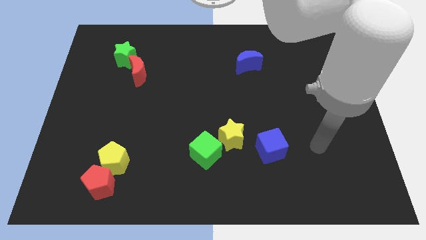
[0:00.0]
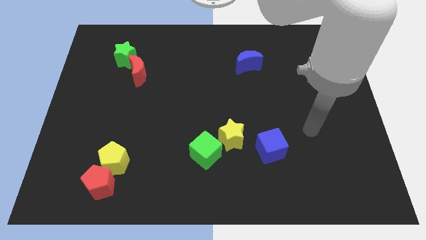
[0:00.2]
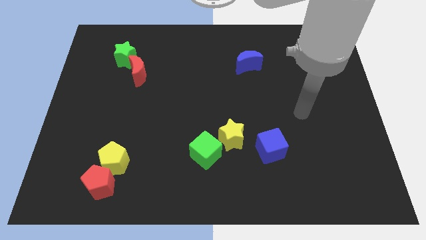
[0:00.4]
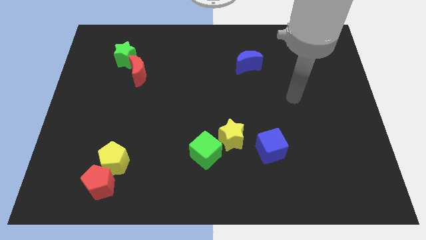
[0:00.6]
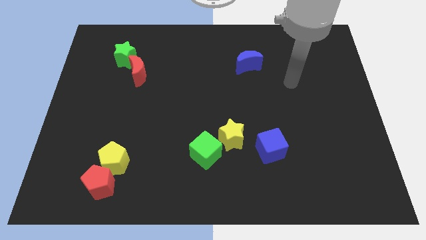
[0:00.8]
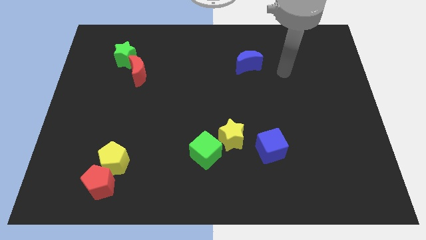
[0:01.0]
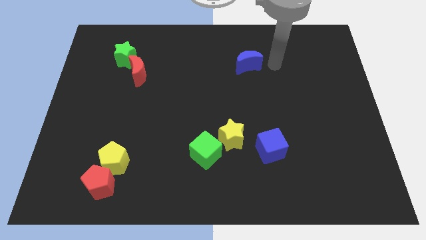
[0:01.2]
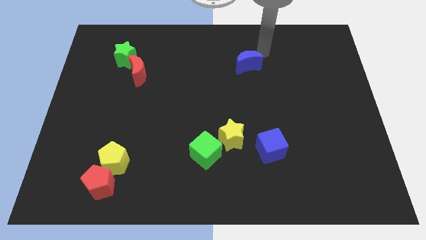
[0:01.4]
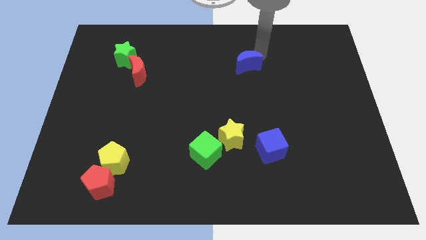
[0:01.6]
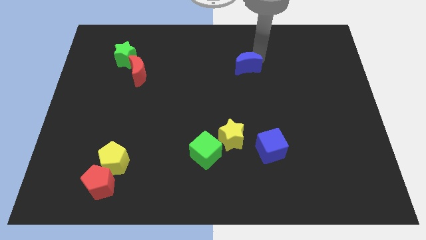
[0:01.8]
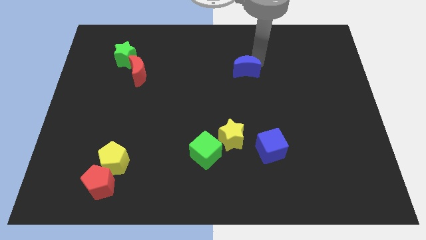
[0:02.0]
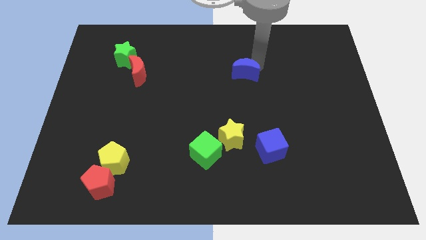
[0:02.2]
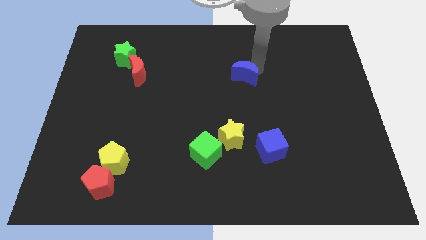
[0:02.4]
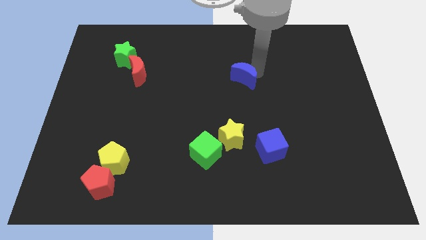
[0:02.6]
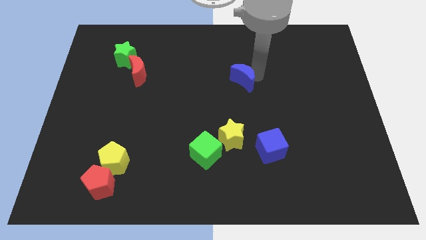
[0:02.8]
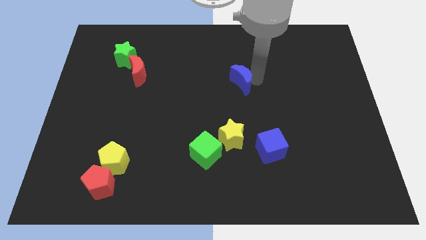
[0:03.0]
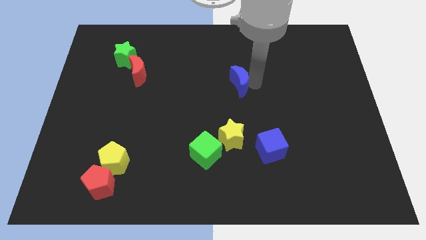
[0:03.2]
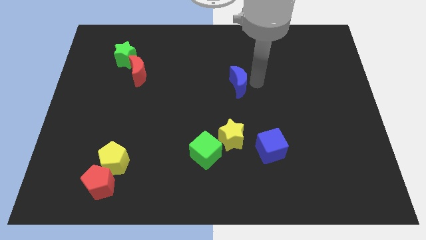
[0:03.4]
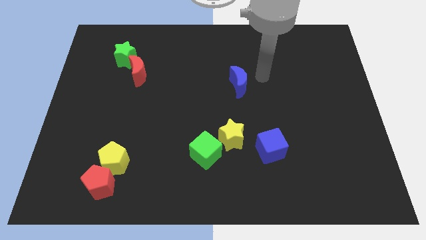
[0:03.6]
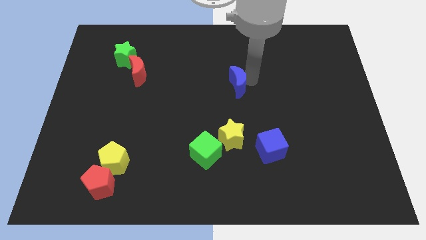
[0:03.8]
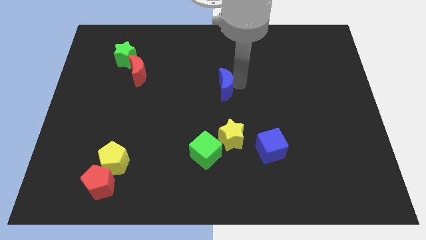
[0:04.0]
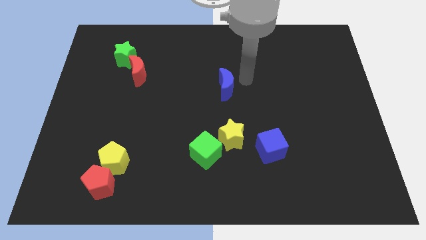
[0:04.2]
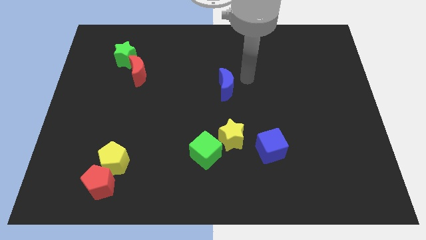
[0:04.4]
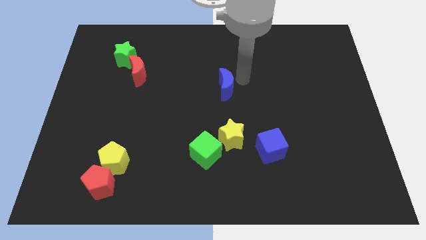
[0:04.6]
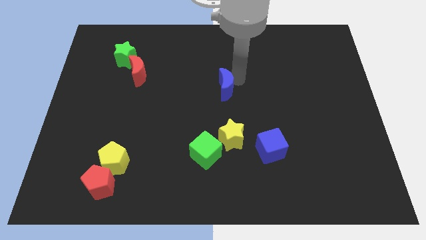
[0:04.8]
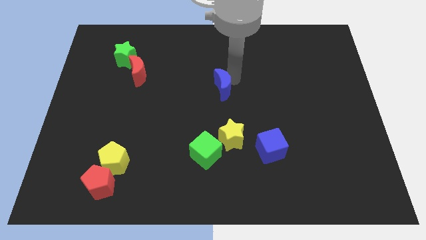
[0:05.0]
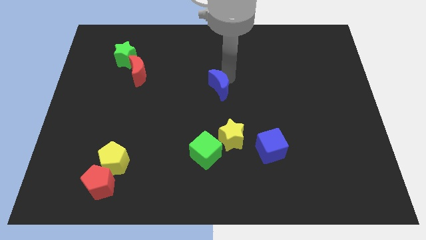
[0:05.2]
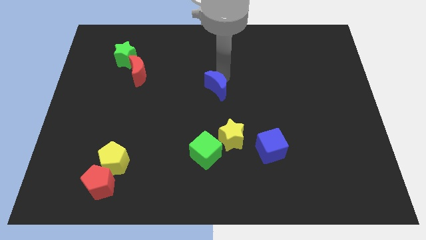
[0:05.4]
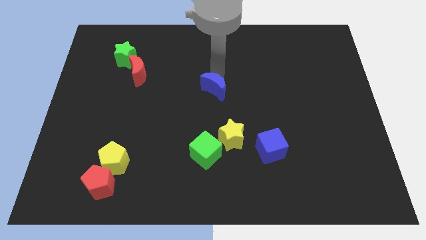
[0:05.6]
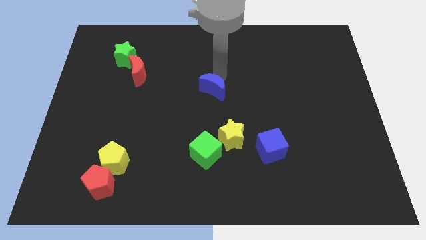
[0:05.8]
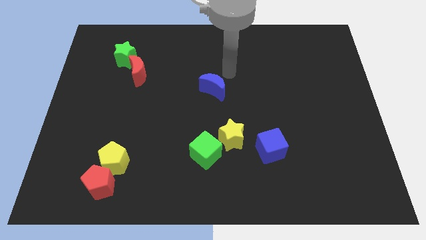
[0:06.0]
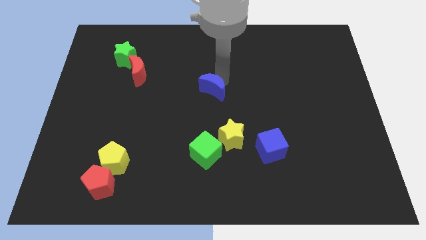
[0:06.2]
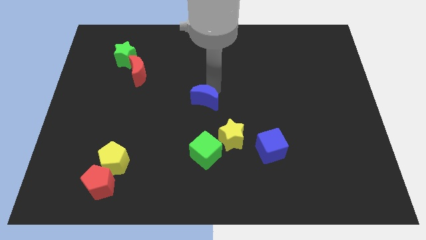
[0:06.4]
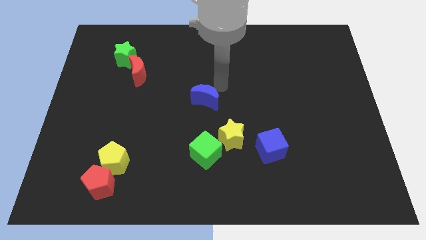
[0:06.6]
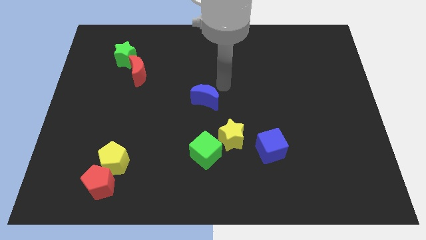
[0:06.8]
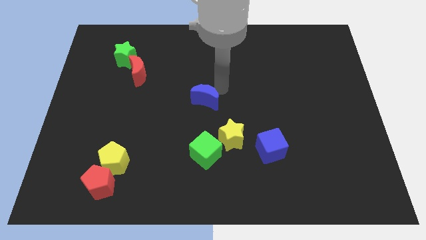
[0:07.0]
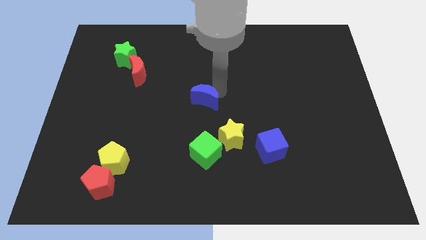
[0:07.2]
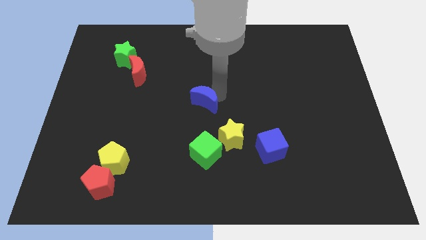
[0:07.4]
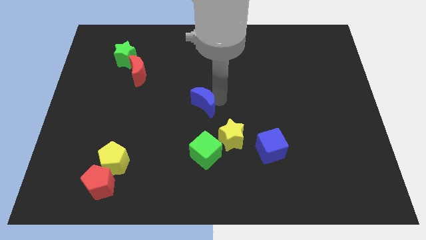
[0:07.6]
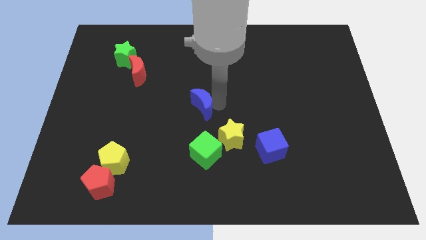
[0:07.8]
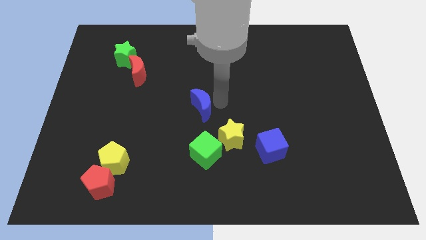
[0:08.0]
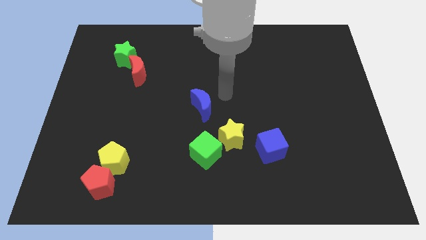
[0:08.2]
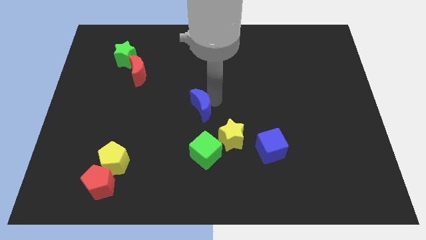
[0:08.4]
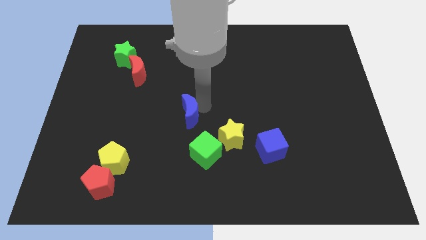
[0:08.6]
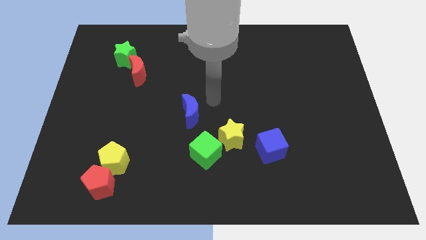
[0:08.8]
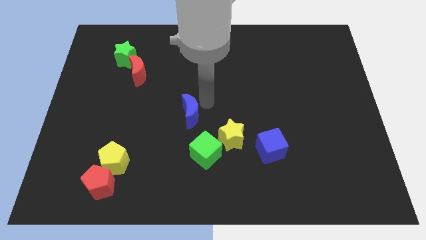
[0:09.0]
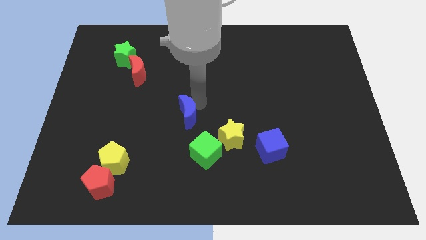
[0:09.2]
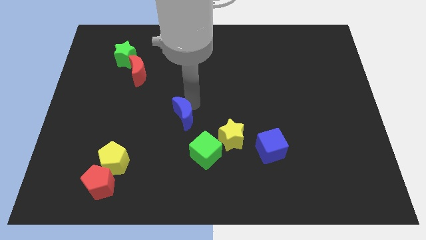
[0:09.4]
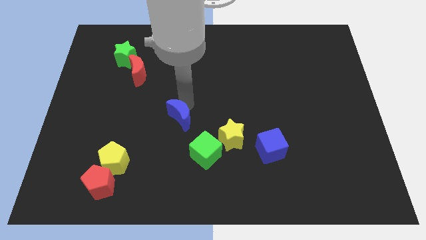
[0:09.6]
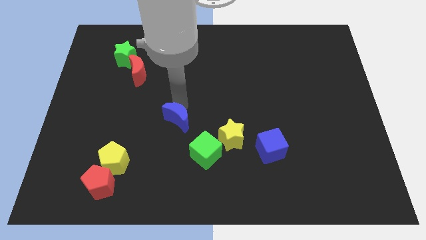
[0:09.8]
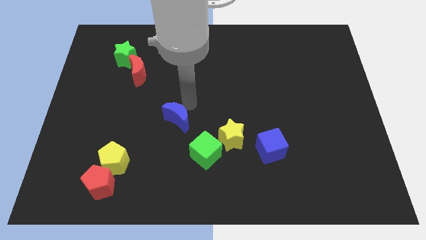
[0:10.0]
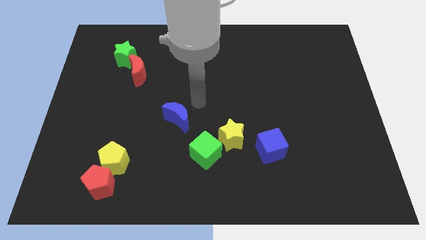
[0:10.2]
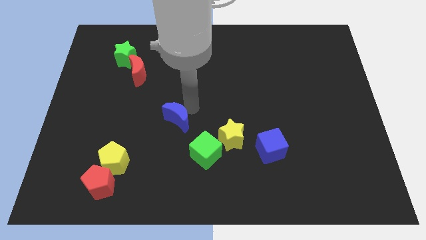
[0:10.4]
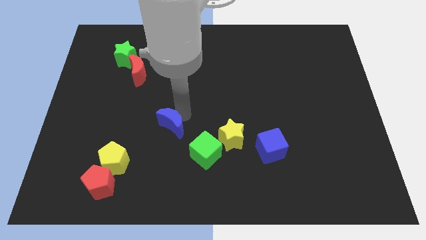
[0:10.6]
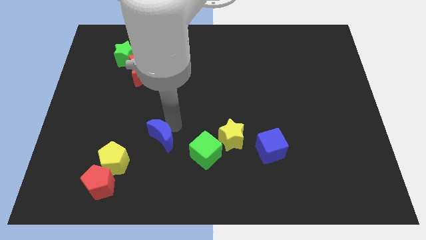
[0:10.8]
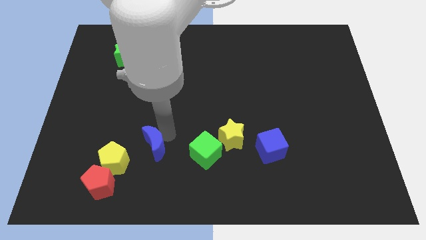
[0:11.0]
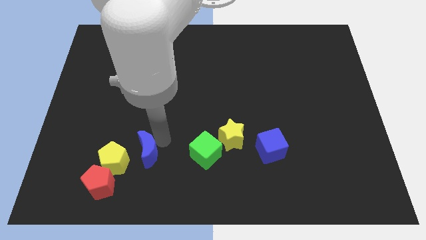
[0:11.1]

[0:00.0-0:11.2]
move the blue moon to the top right side of the red pentagon

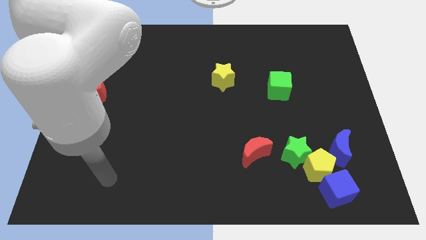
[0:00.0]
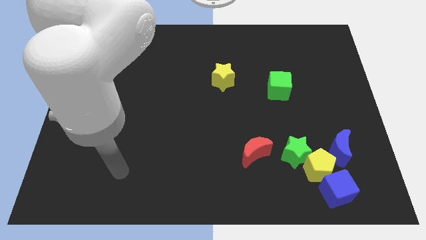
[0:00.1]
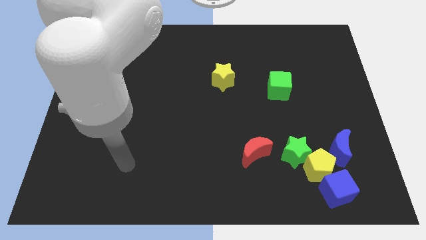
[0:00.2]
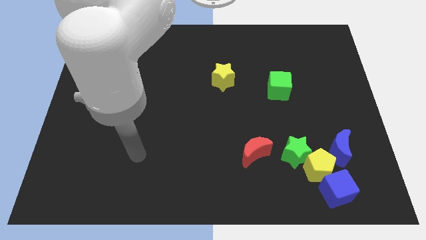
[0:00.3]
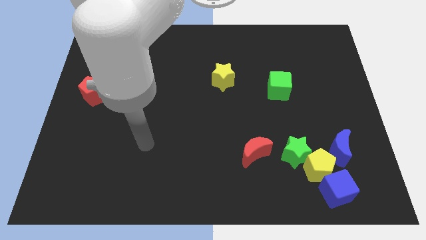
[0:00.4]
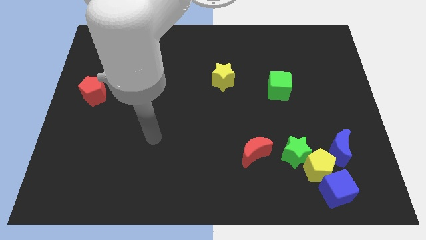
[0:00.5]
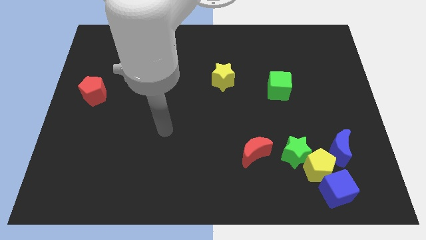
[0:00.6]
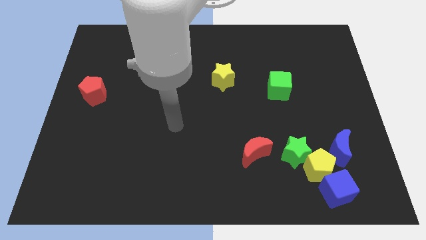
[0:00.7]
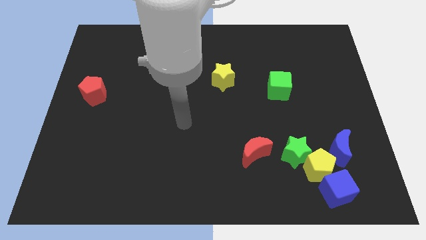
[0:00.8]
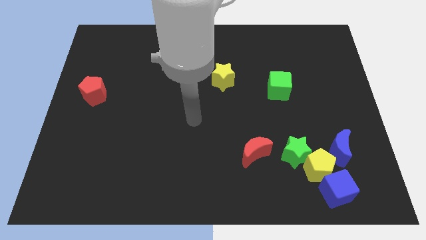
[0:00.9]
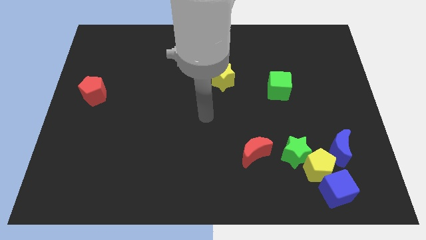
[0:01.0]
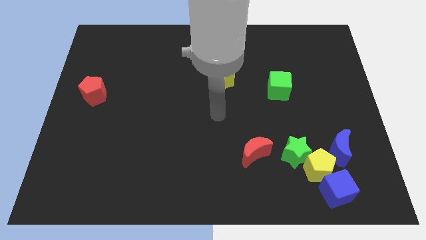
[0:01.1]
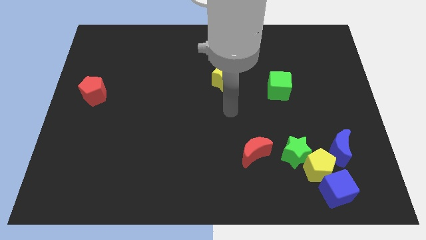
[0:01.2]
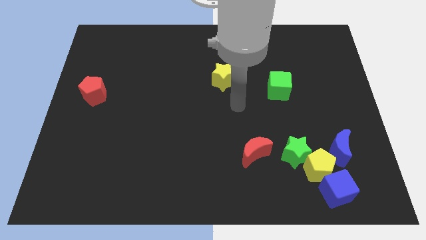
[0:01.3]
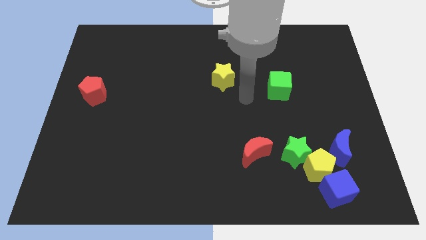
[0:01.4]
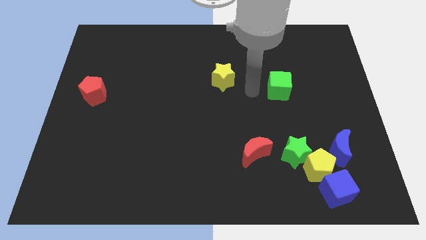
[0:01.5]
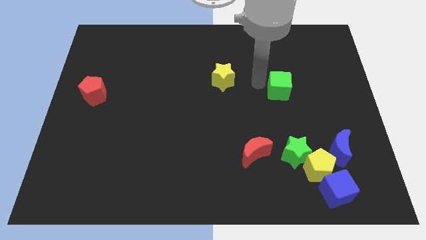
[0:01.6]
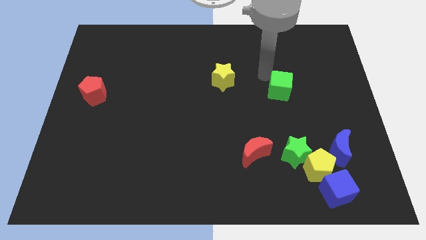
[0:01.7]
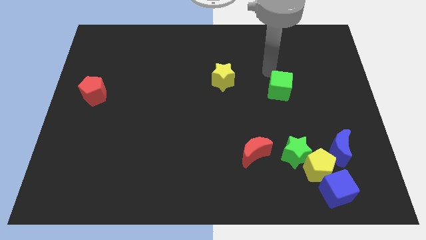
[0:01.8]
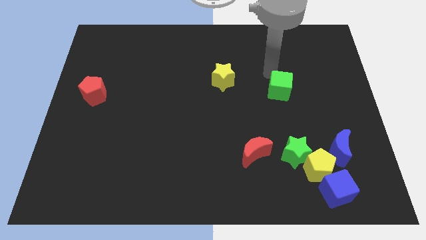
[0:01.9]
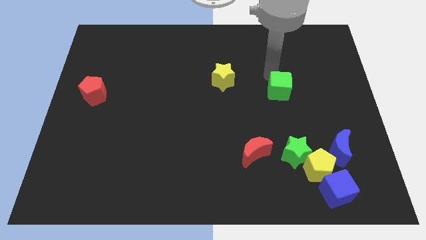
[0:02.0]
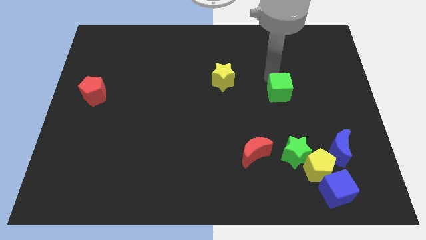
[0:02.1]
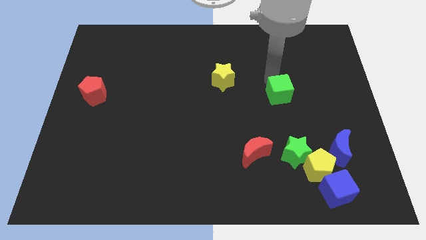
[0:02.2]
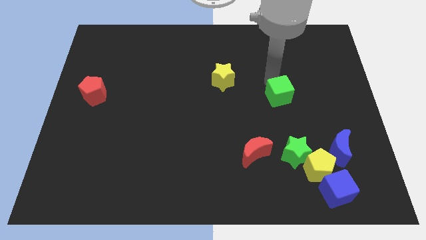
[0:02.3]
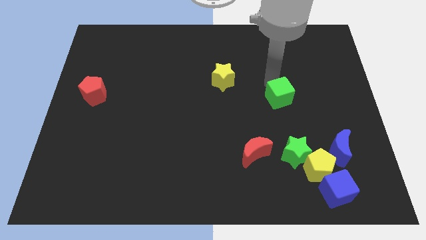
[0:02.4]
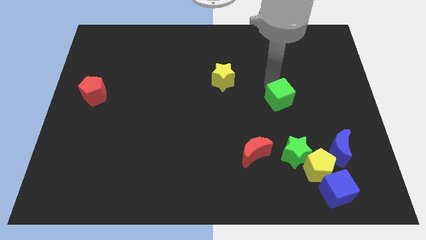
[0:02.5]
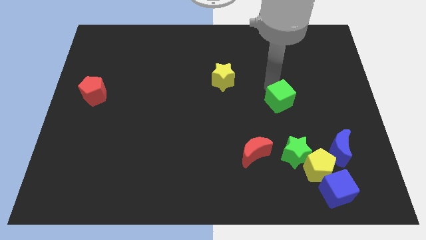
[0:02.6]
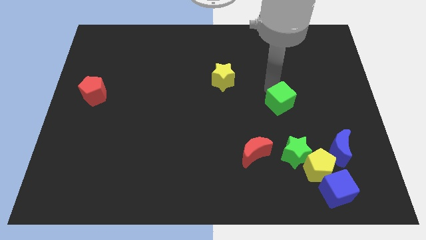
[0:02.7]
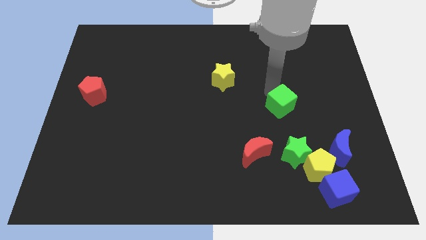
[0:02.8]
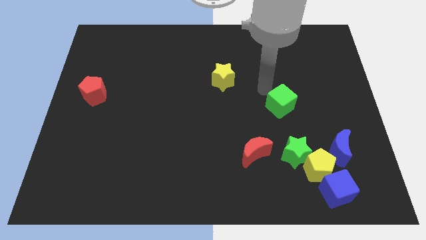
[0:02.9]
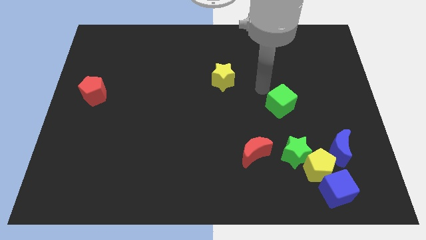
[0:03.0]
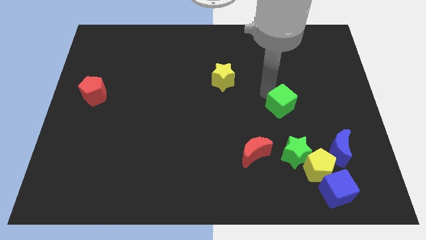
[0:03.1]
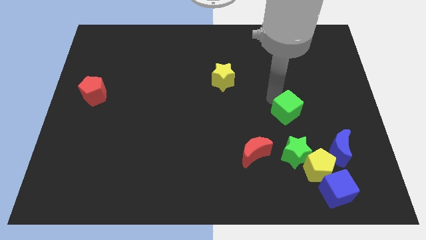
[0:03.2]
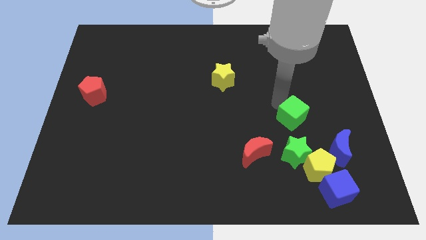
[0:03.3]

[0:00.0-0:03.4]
push the green cube diagonally up and to the left of the blue moon
